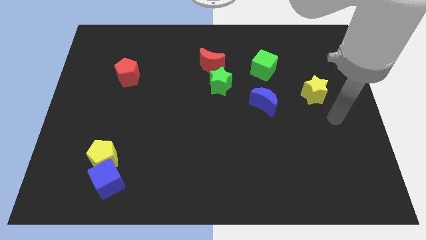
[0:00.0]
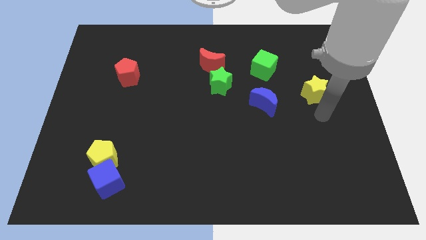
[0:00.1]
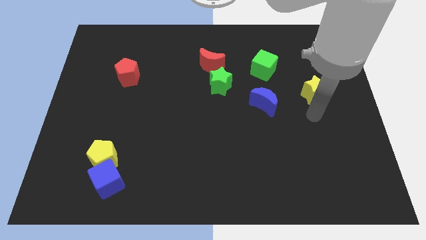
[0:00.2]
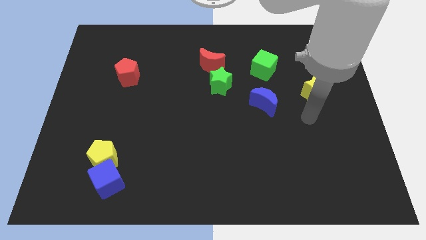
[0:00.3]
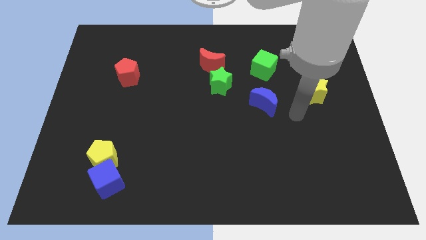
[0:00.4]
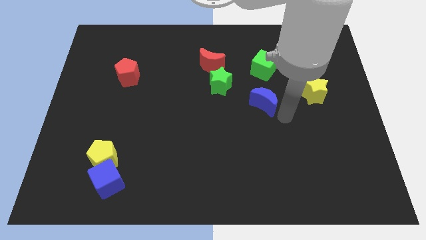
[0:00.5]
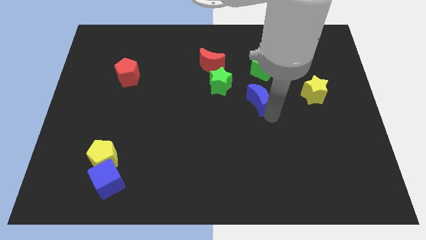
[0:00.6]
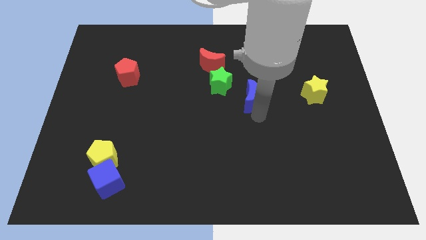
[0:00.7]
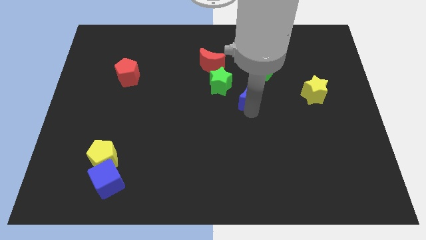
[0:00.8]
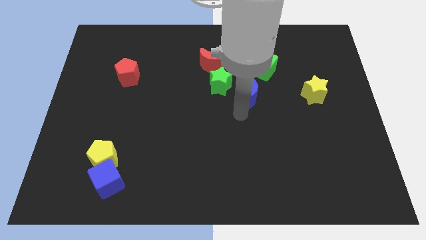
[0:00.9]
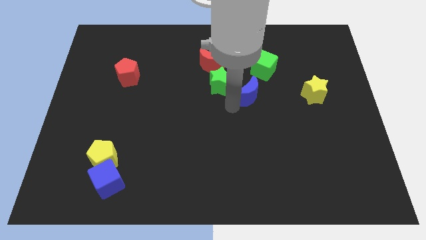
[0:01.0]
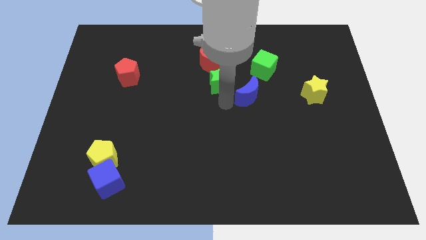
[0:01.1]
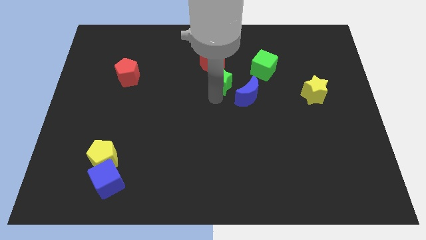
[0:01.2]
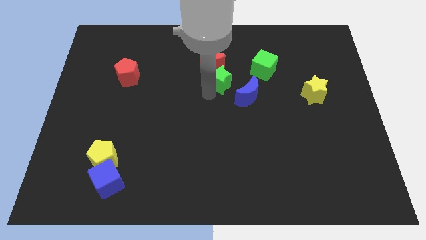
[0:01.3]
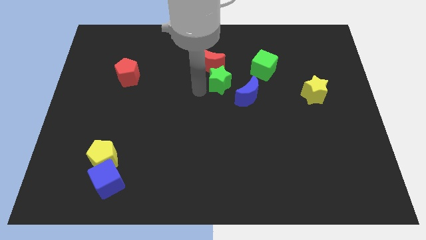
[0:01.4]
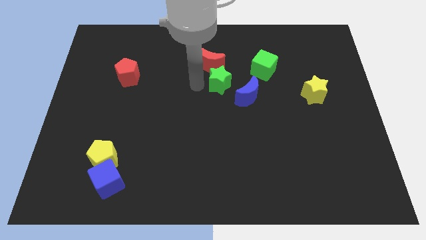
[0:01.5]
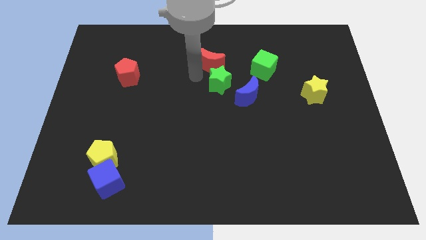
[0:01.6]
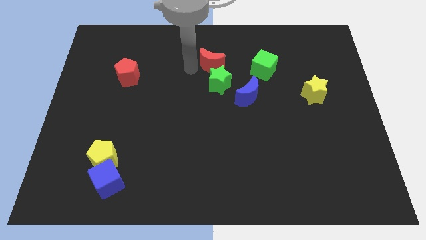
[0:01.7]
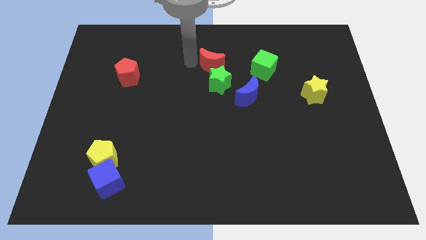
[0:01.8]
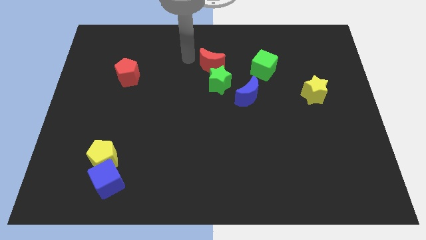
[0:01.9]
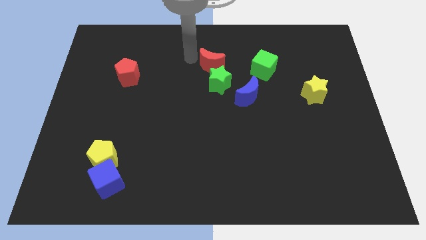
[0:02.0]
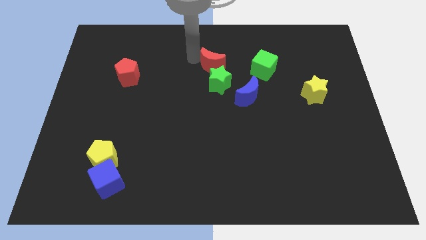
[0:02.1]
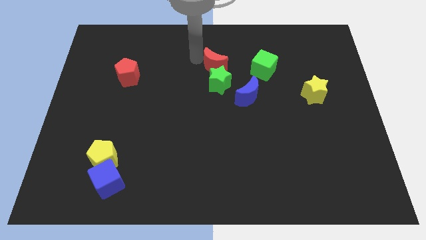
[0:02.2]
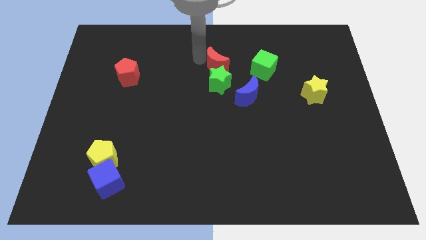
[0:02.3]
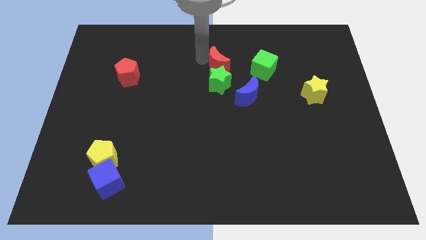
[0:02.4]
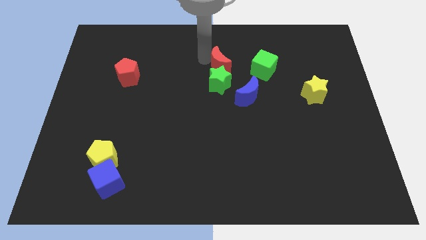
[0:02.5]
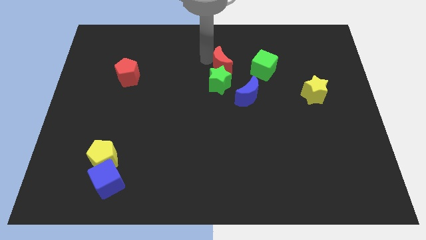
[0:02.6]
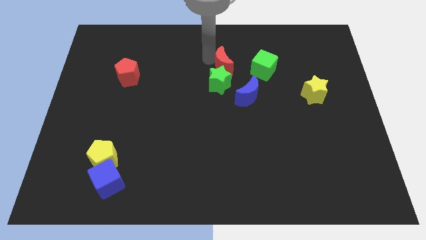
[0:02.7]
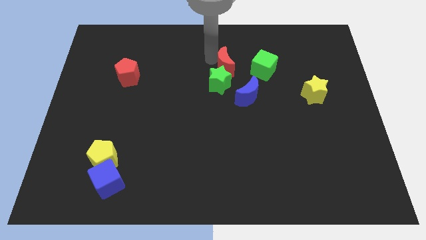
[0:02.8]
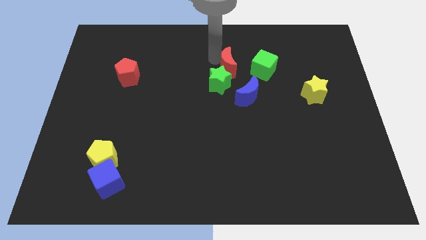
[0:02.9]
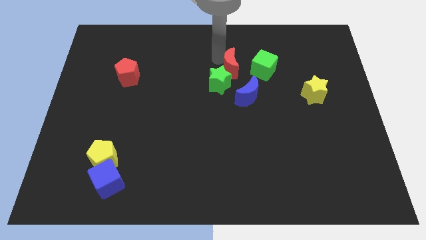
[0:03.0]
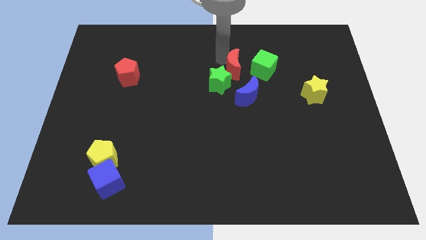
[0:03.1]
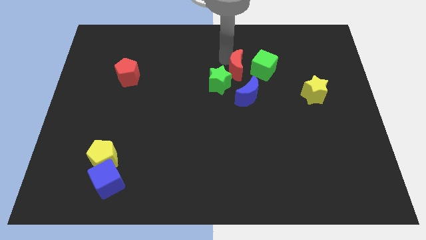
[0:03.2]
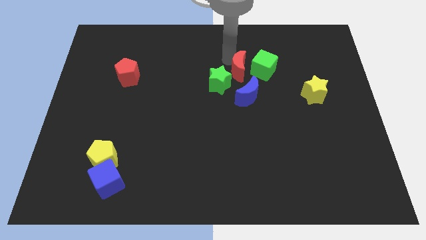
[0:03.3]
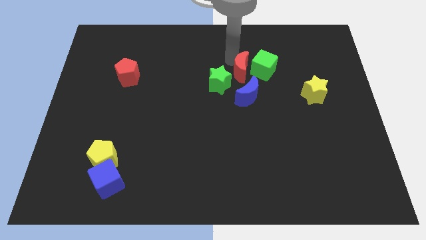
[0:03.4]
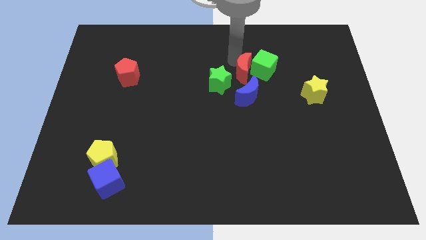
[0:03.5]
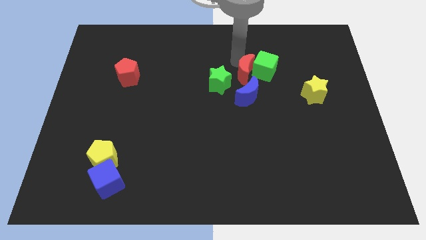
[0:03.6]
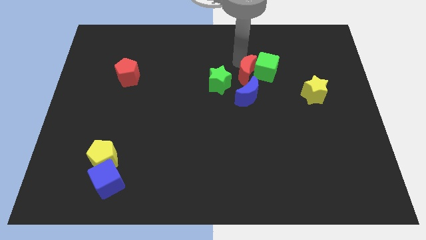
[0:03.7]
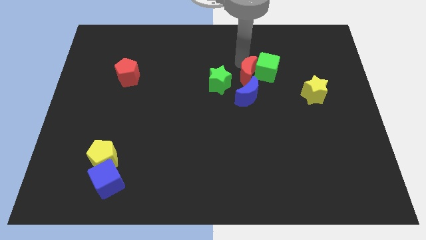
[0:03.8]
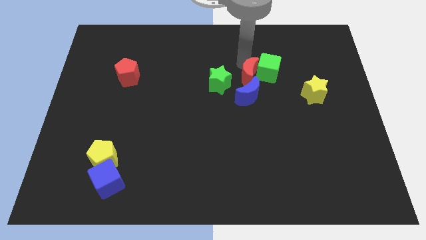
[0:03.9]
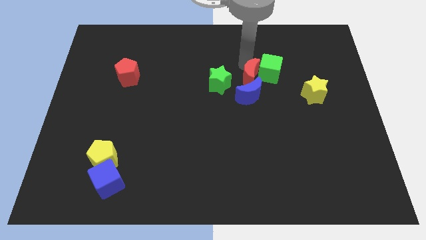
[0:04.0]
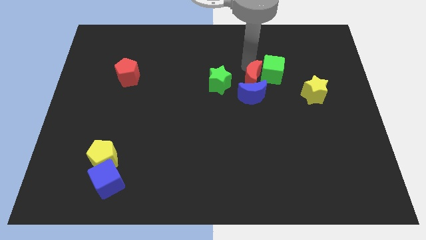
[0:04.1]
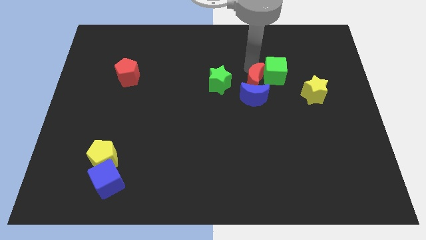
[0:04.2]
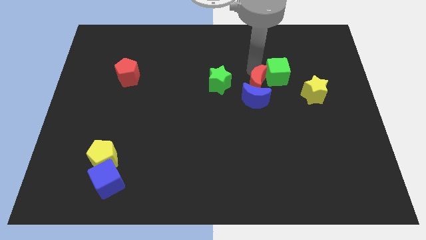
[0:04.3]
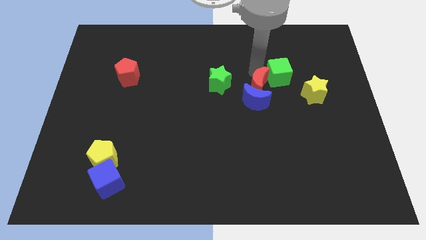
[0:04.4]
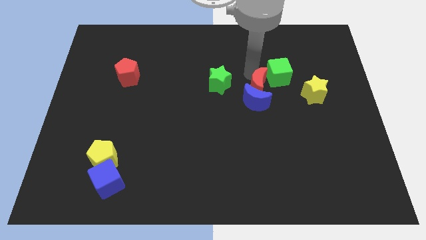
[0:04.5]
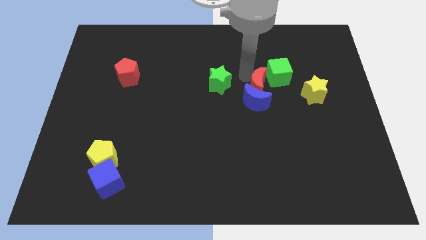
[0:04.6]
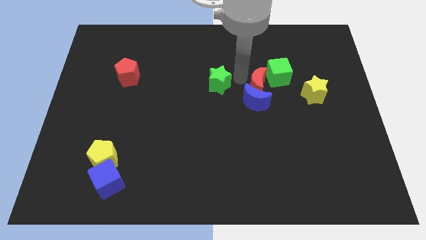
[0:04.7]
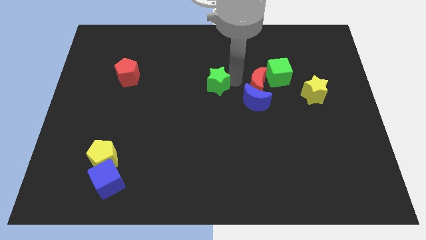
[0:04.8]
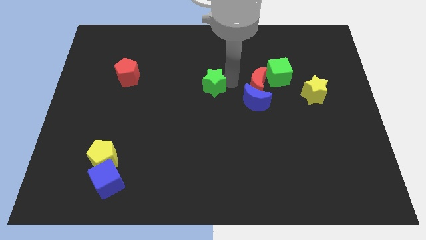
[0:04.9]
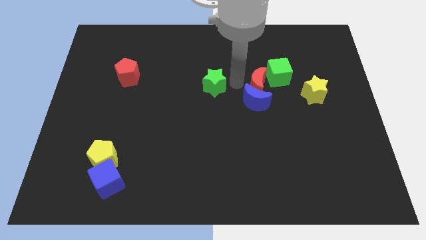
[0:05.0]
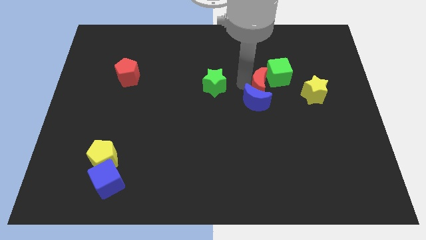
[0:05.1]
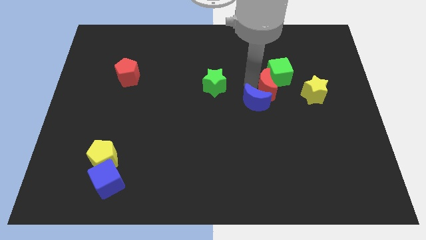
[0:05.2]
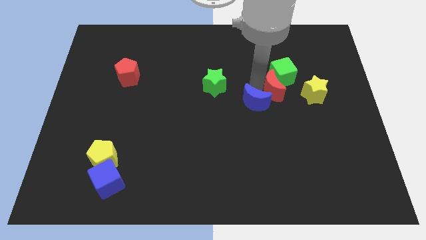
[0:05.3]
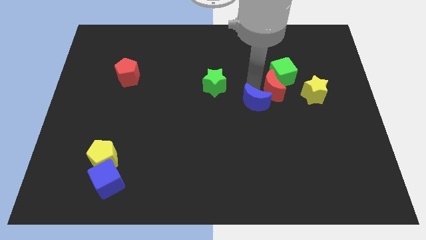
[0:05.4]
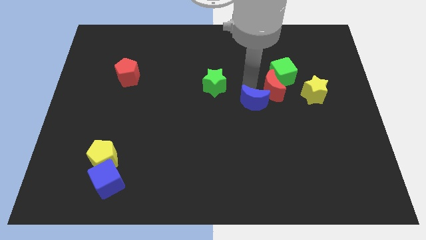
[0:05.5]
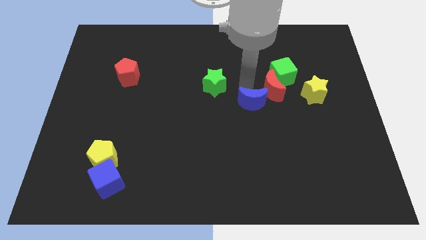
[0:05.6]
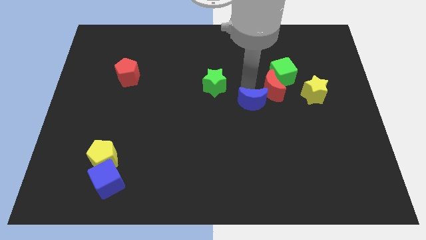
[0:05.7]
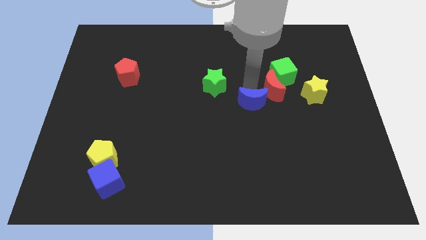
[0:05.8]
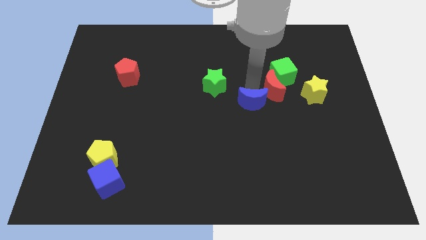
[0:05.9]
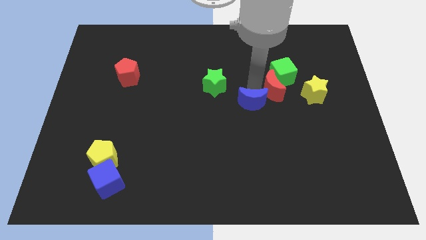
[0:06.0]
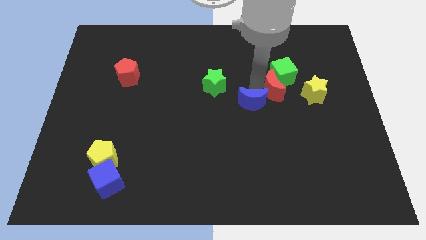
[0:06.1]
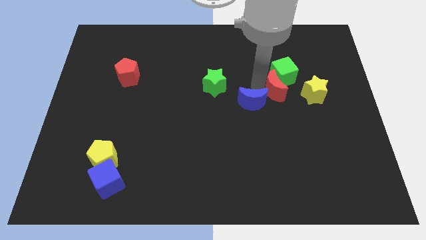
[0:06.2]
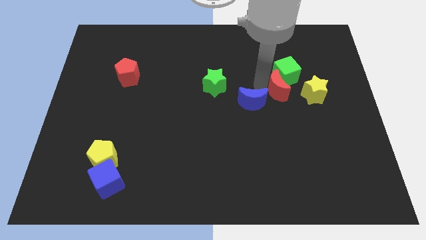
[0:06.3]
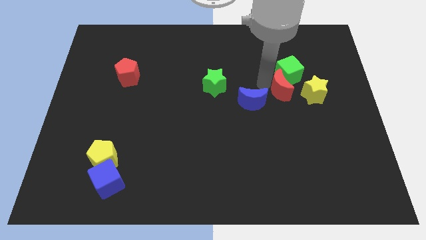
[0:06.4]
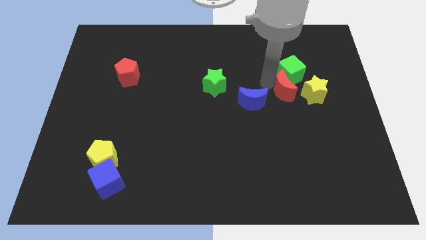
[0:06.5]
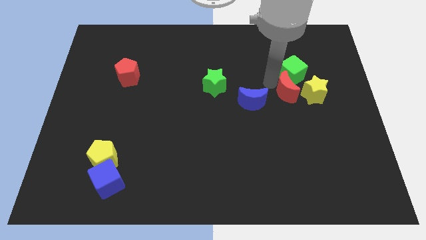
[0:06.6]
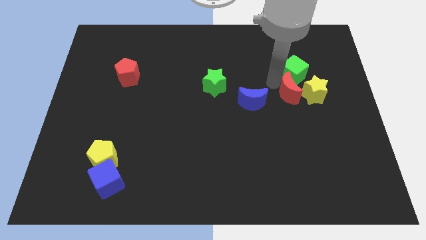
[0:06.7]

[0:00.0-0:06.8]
move the red moon next to the yellow star

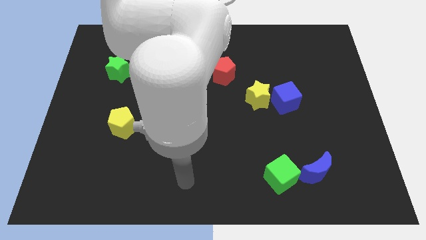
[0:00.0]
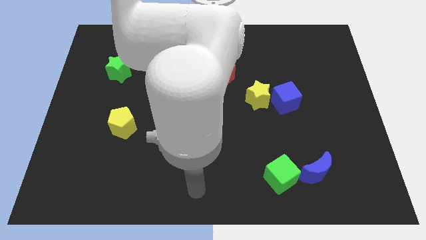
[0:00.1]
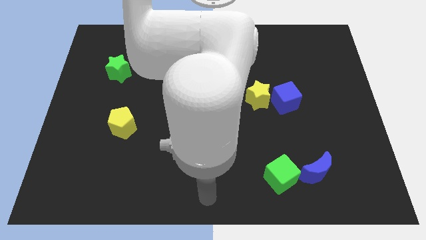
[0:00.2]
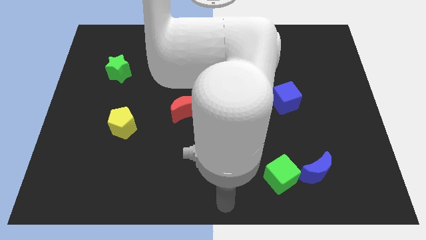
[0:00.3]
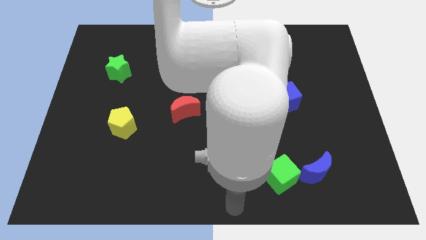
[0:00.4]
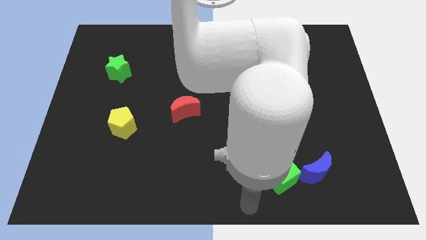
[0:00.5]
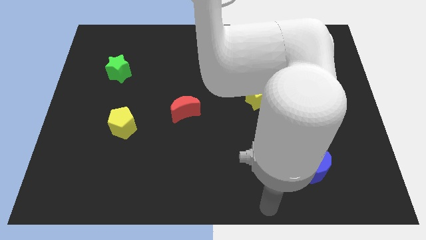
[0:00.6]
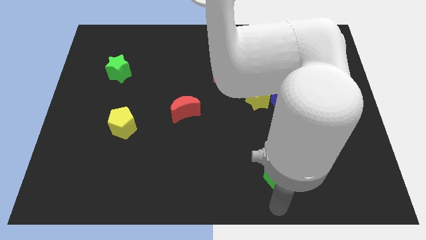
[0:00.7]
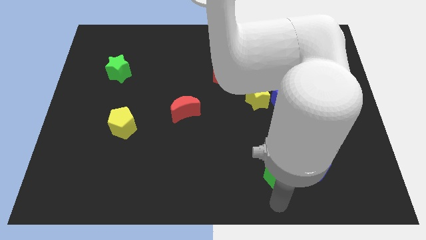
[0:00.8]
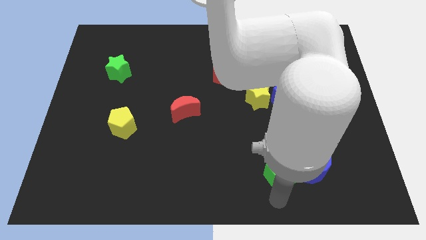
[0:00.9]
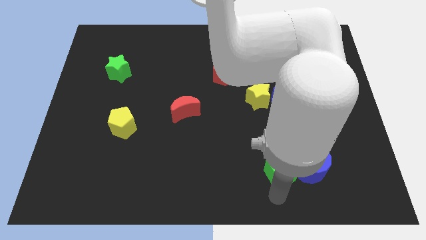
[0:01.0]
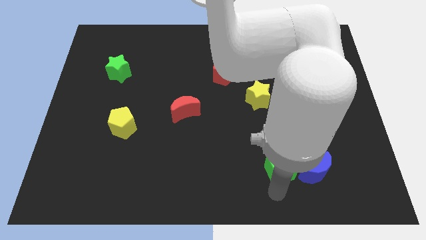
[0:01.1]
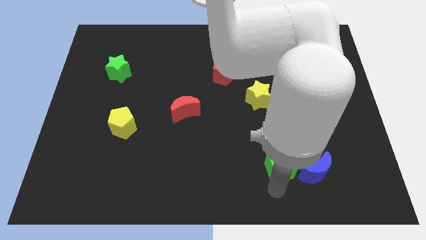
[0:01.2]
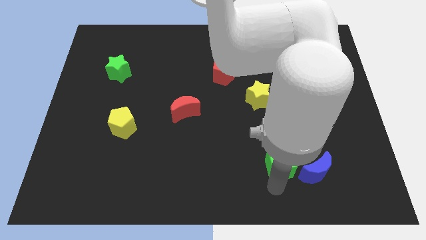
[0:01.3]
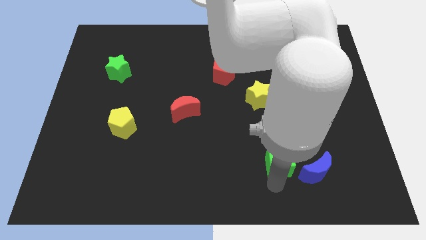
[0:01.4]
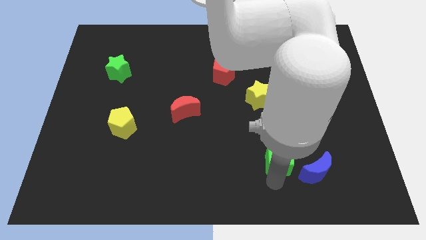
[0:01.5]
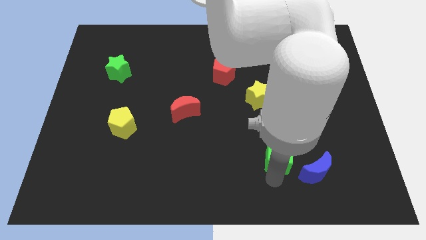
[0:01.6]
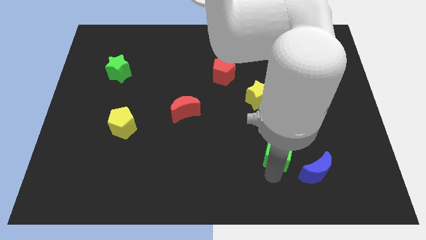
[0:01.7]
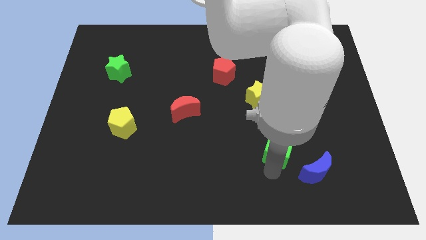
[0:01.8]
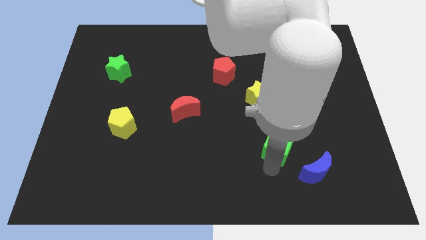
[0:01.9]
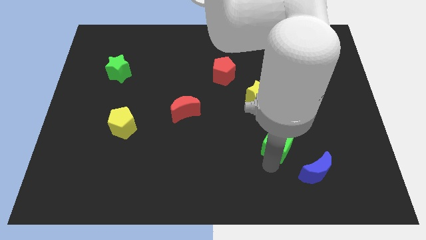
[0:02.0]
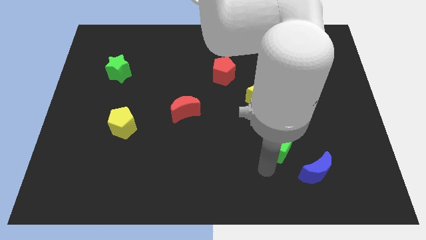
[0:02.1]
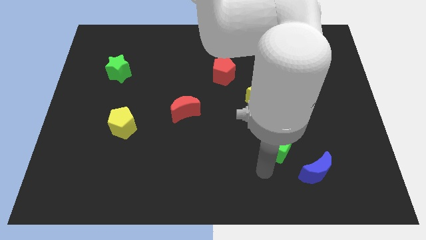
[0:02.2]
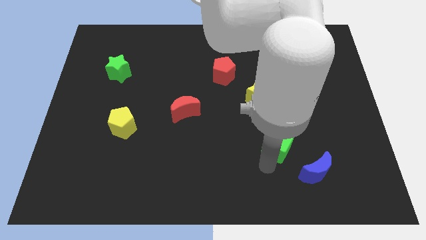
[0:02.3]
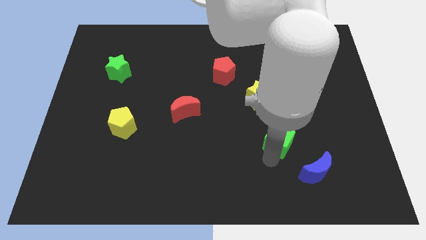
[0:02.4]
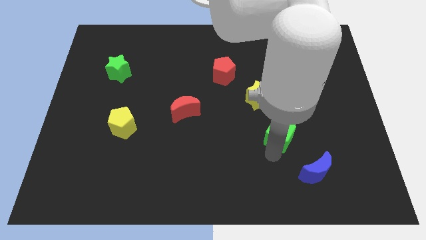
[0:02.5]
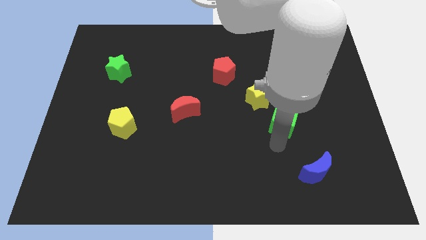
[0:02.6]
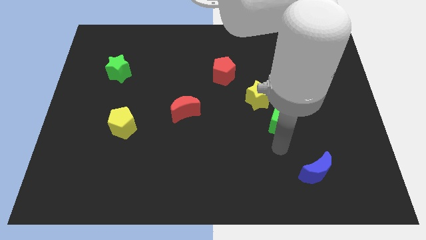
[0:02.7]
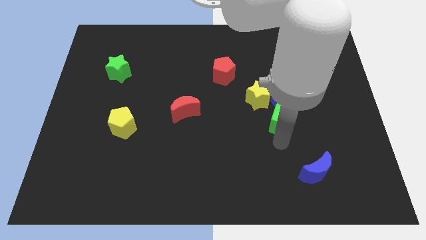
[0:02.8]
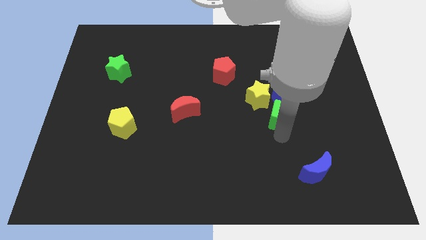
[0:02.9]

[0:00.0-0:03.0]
push the green cube close to the blue cube
